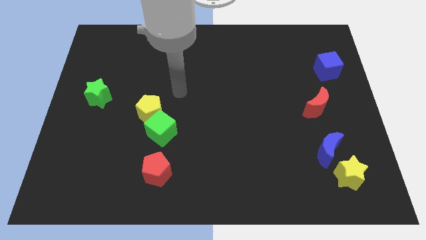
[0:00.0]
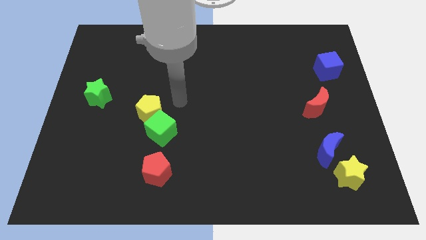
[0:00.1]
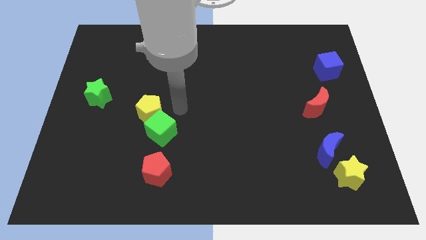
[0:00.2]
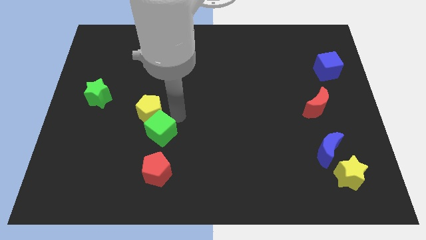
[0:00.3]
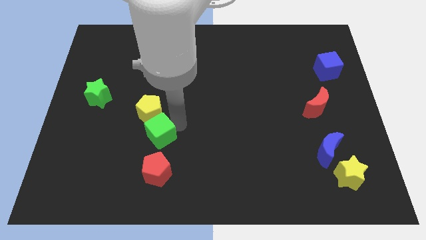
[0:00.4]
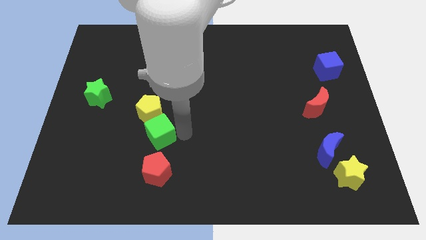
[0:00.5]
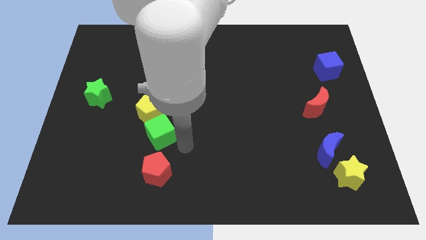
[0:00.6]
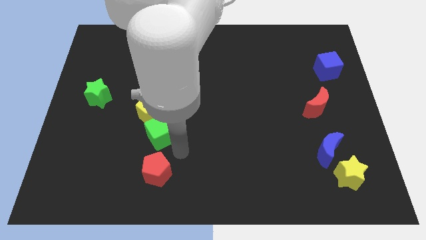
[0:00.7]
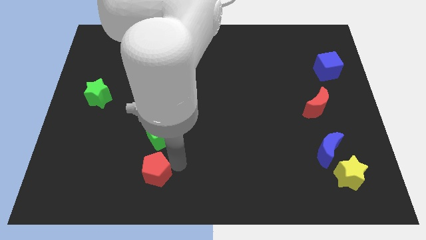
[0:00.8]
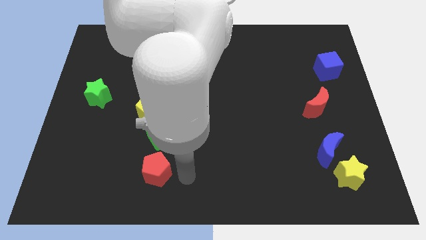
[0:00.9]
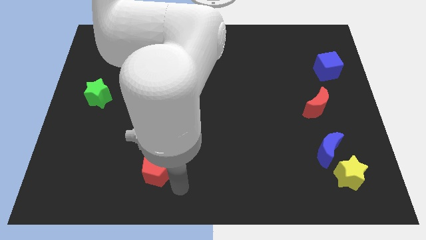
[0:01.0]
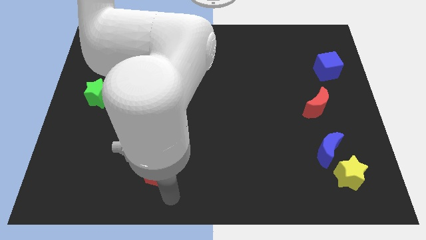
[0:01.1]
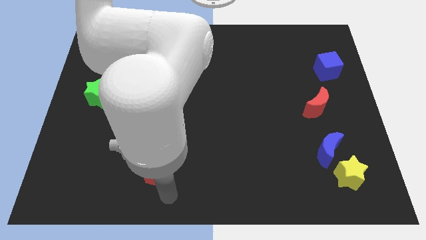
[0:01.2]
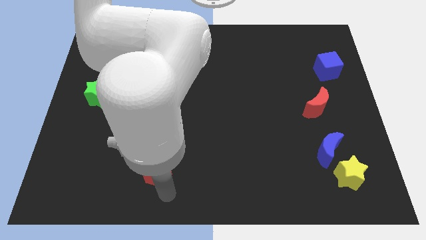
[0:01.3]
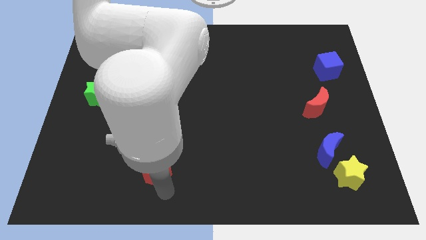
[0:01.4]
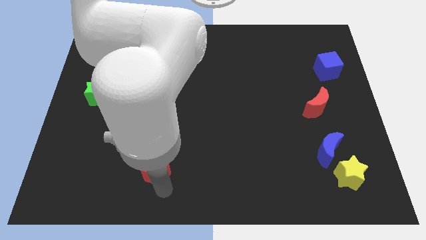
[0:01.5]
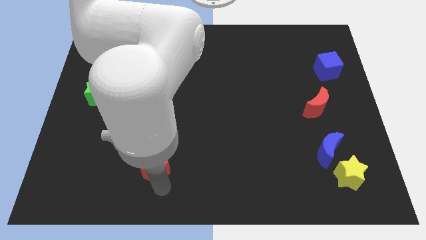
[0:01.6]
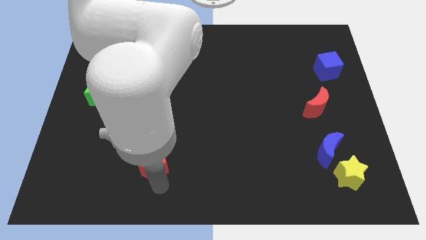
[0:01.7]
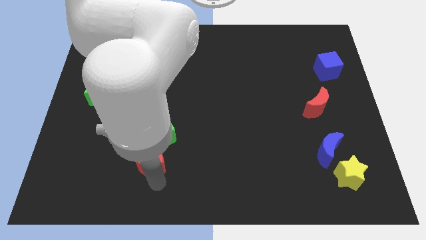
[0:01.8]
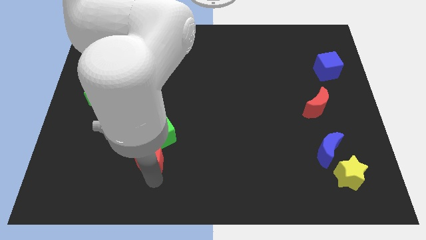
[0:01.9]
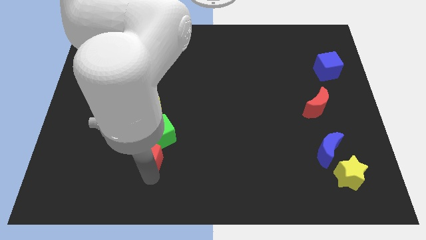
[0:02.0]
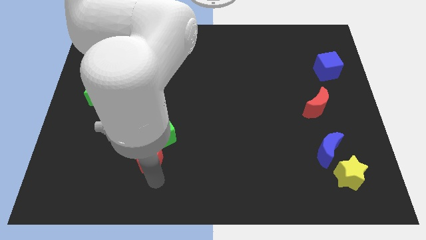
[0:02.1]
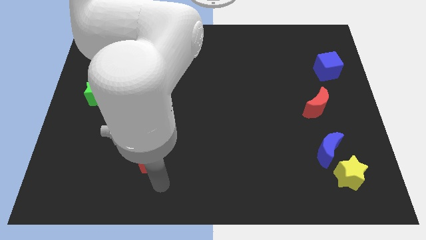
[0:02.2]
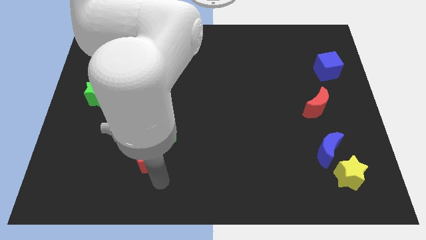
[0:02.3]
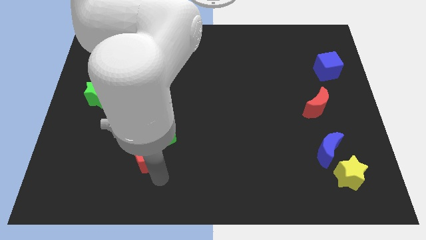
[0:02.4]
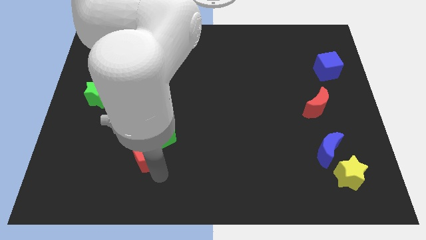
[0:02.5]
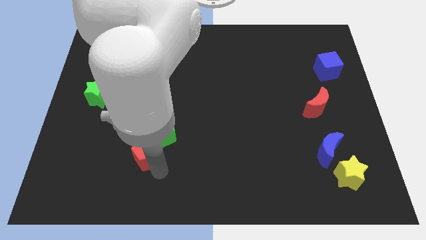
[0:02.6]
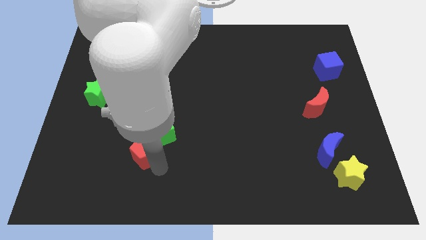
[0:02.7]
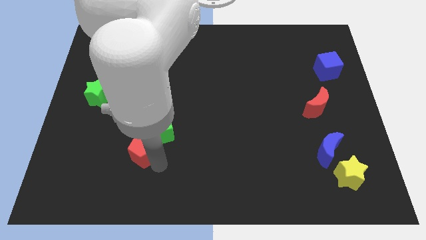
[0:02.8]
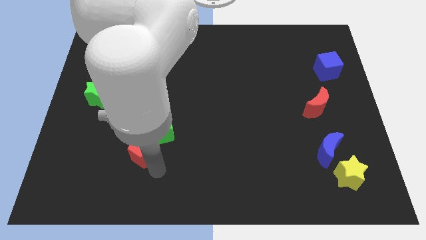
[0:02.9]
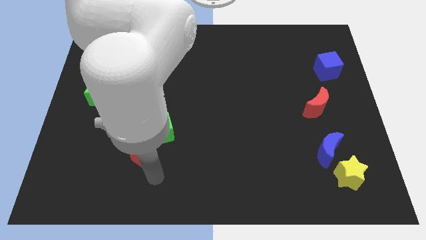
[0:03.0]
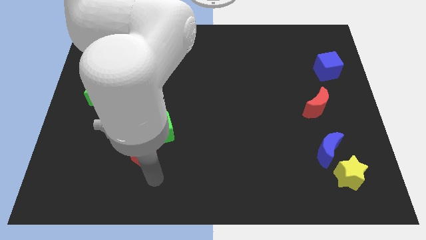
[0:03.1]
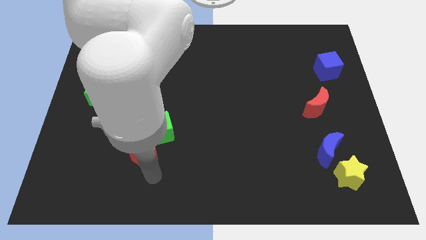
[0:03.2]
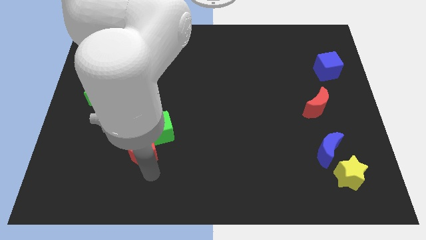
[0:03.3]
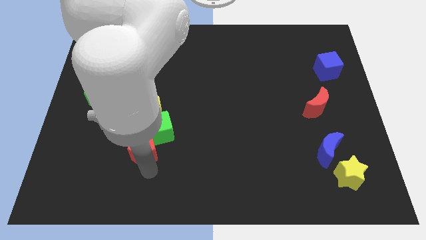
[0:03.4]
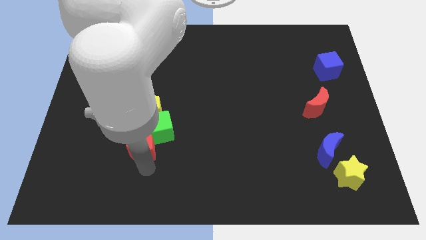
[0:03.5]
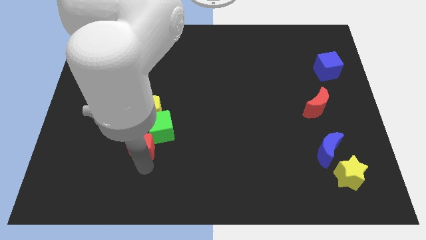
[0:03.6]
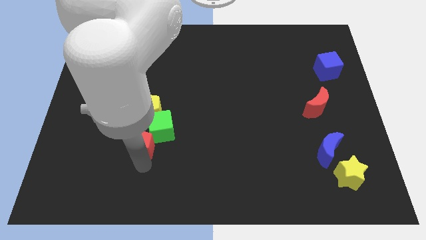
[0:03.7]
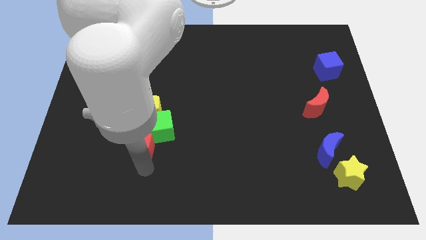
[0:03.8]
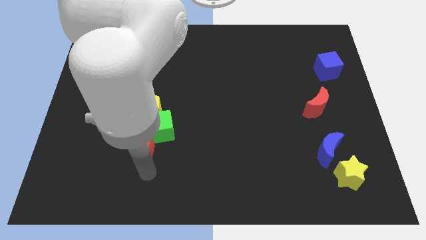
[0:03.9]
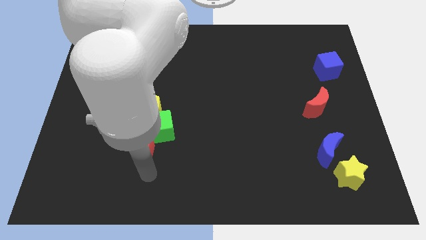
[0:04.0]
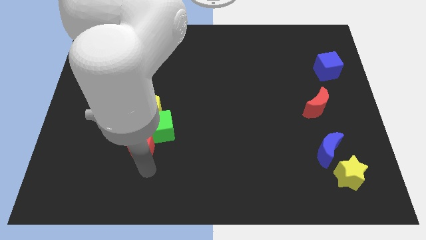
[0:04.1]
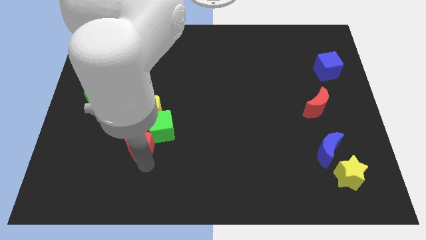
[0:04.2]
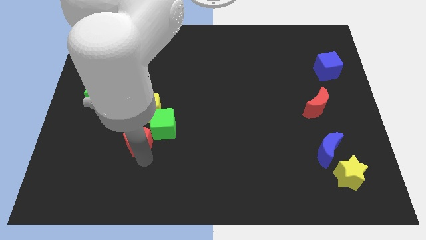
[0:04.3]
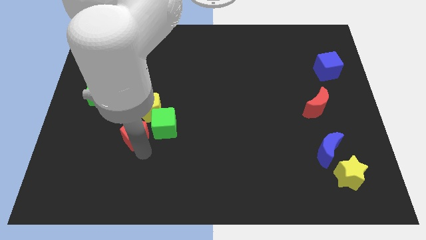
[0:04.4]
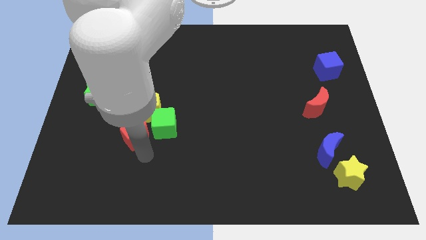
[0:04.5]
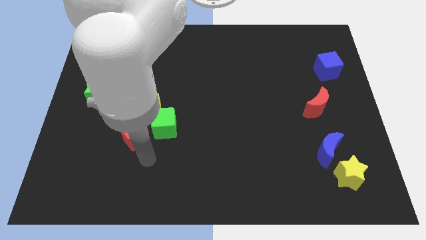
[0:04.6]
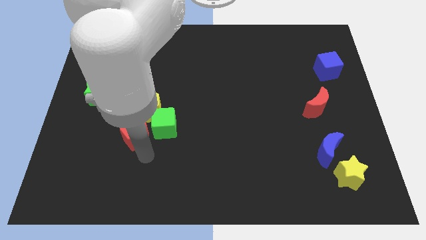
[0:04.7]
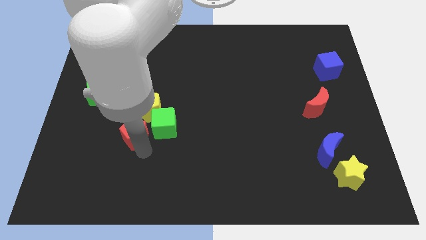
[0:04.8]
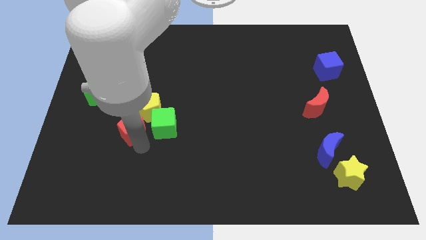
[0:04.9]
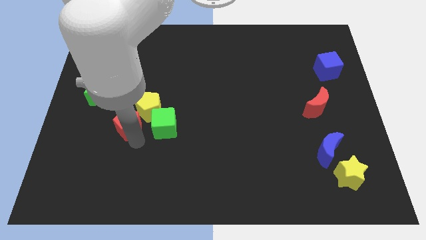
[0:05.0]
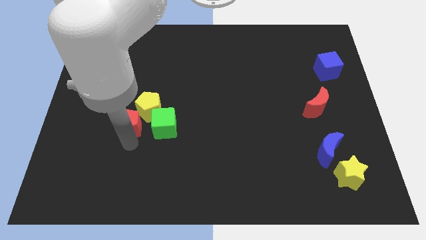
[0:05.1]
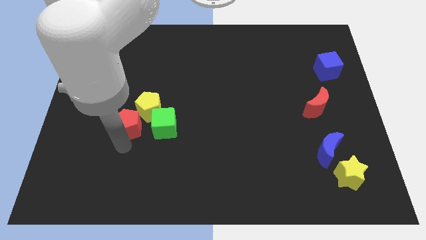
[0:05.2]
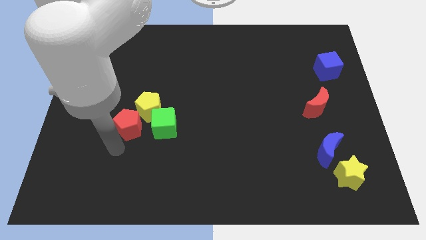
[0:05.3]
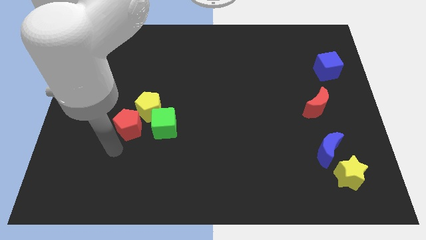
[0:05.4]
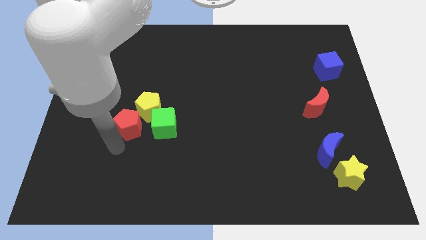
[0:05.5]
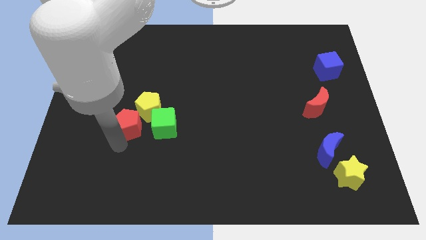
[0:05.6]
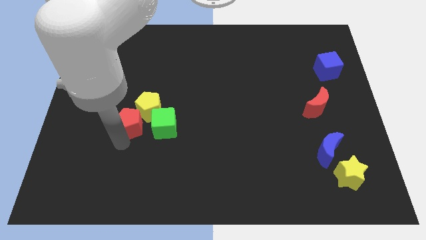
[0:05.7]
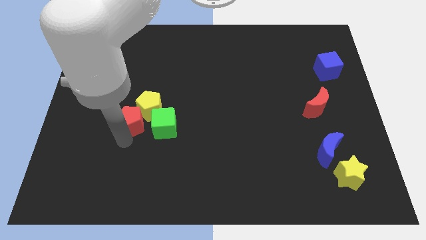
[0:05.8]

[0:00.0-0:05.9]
put the red pentagon diagonally up and to the left of the green cube

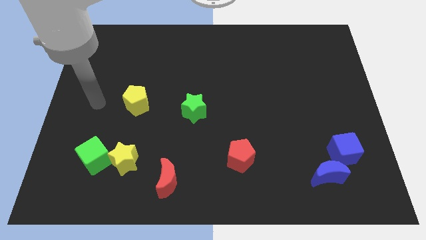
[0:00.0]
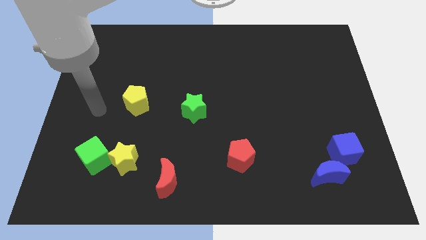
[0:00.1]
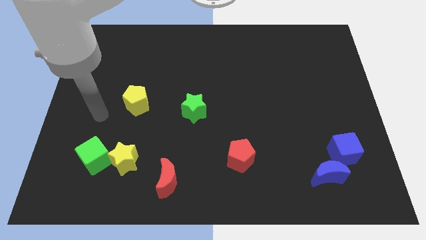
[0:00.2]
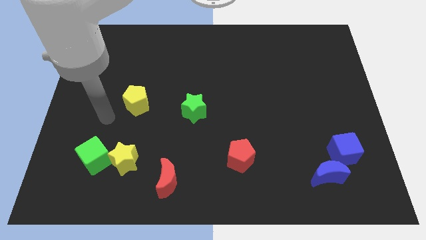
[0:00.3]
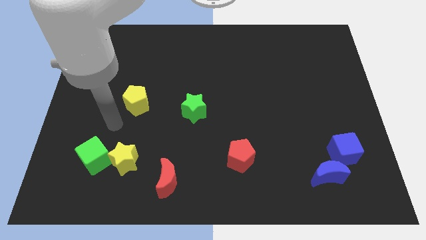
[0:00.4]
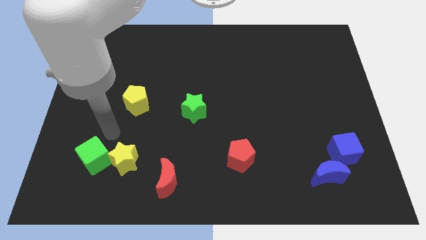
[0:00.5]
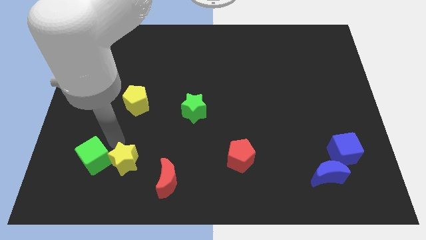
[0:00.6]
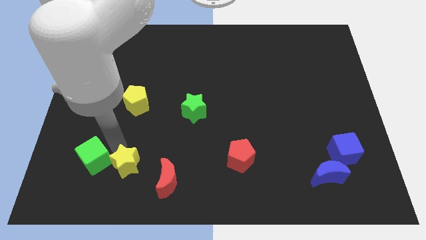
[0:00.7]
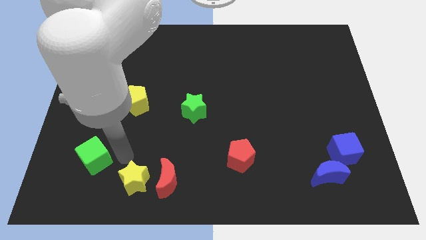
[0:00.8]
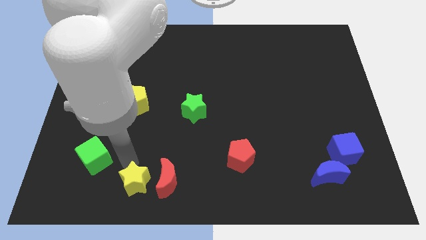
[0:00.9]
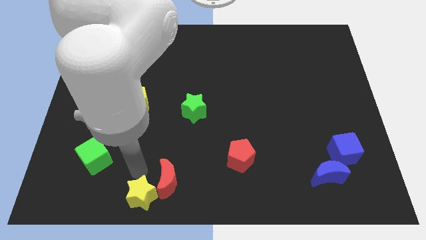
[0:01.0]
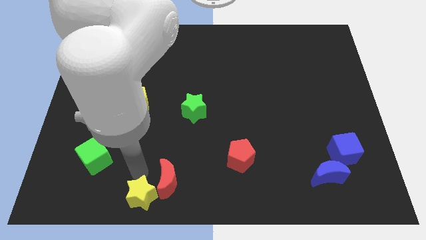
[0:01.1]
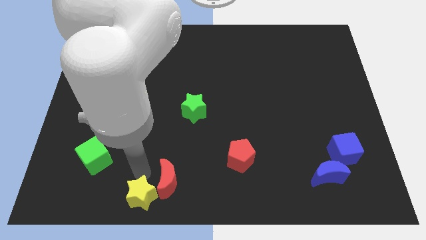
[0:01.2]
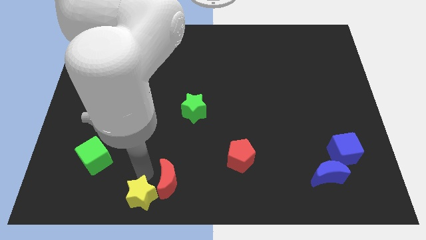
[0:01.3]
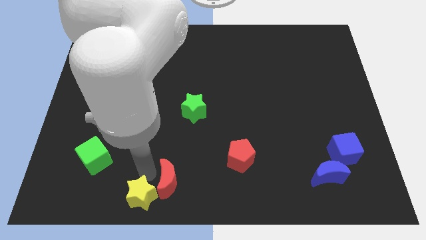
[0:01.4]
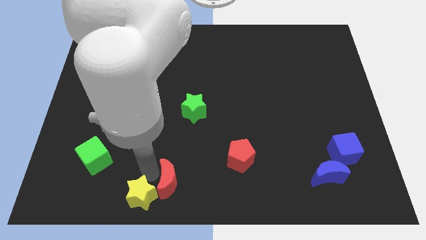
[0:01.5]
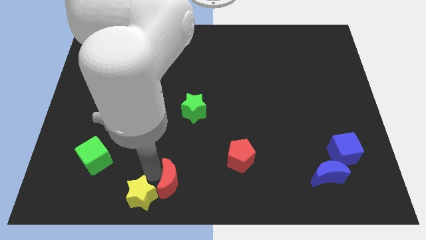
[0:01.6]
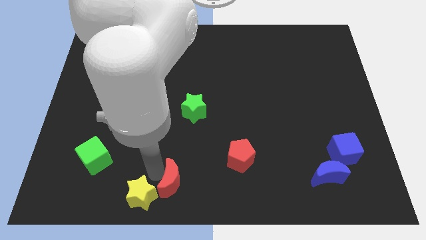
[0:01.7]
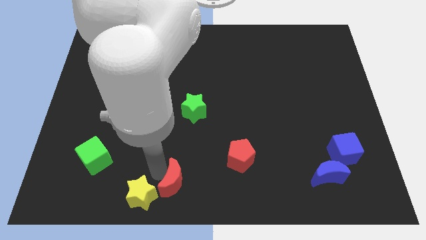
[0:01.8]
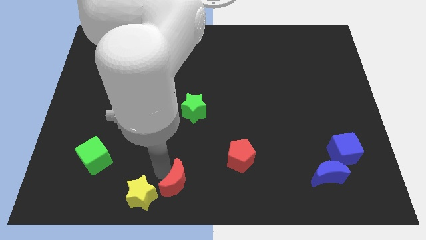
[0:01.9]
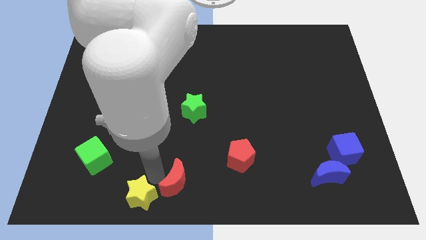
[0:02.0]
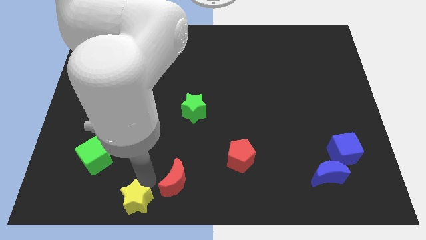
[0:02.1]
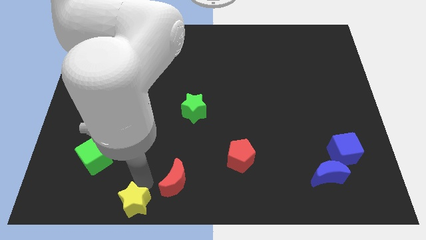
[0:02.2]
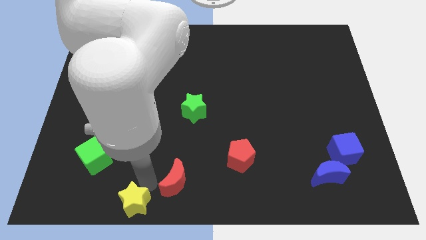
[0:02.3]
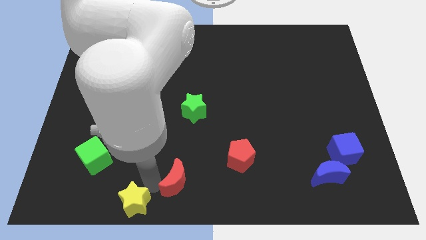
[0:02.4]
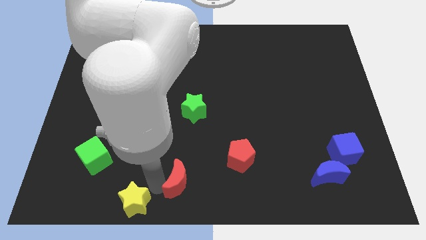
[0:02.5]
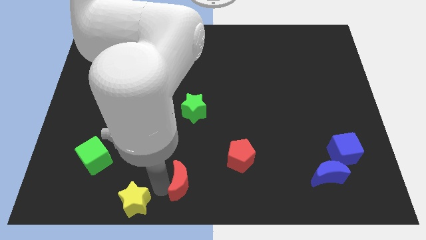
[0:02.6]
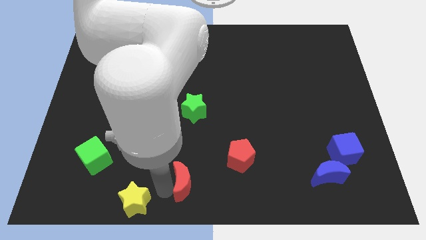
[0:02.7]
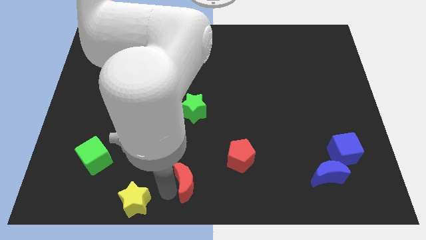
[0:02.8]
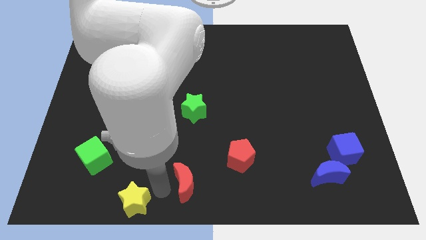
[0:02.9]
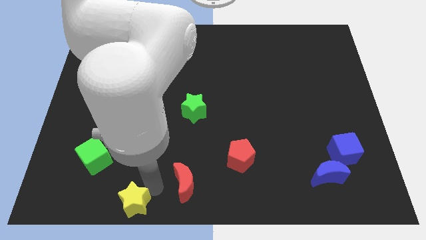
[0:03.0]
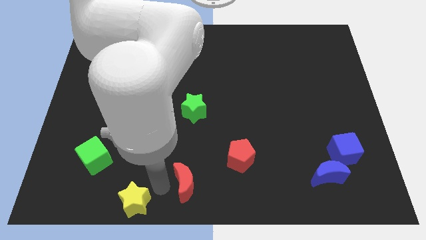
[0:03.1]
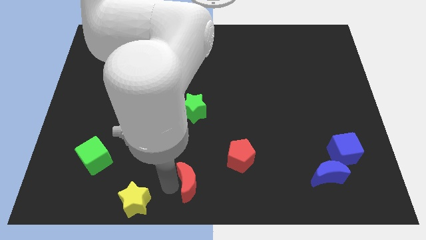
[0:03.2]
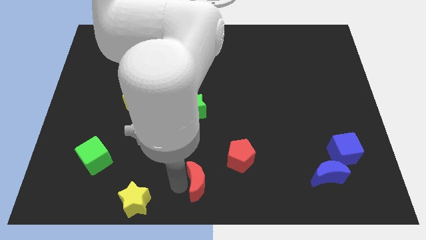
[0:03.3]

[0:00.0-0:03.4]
move the red moon to the bottom left of the red pentagon
